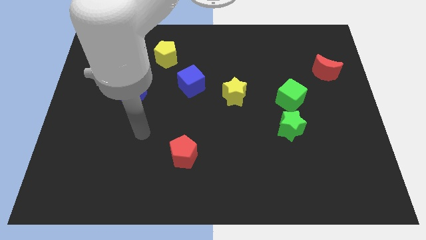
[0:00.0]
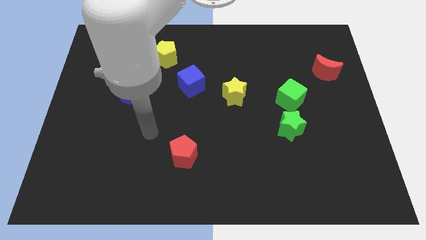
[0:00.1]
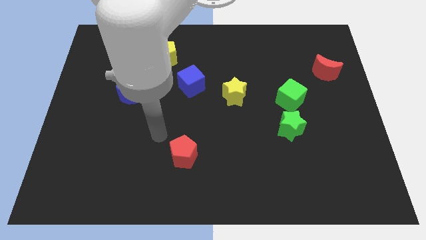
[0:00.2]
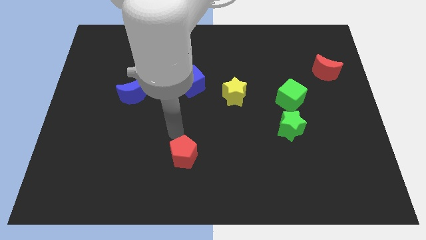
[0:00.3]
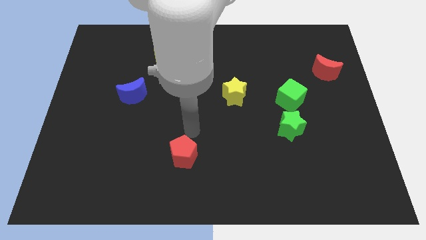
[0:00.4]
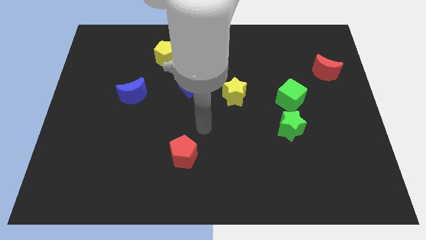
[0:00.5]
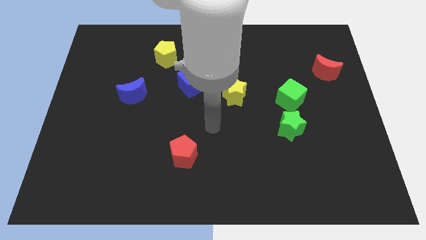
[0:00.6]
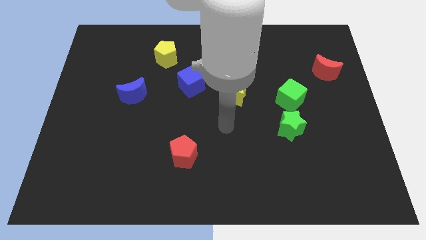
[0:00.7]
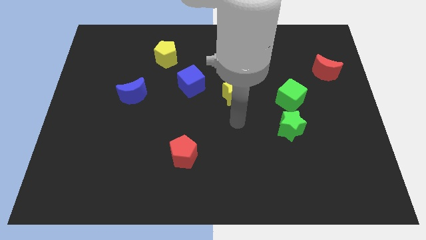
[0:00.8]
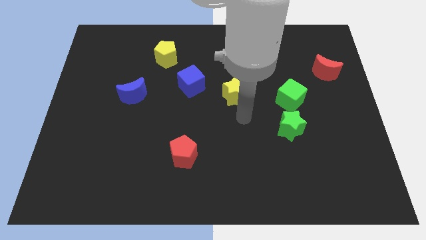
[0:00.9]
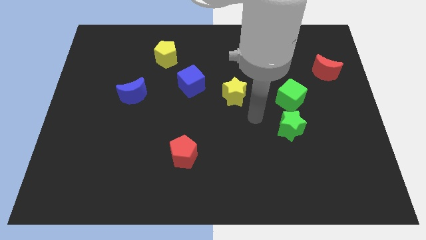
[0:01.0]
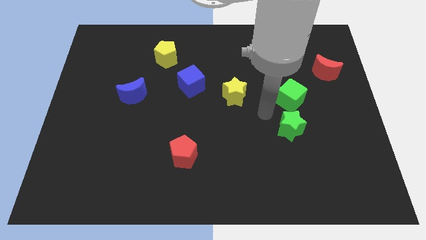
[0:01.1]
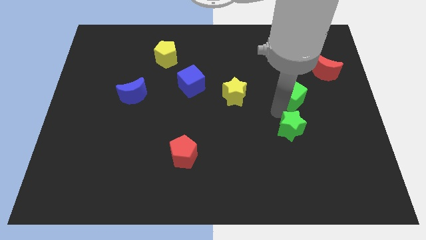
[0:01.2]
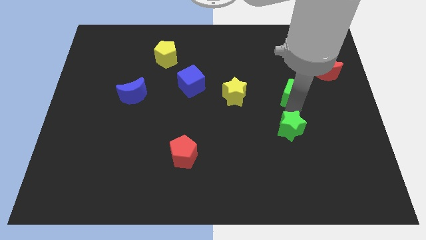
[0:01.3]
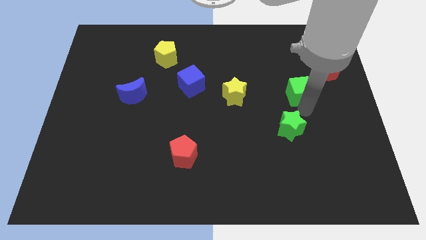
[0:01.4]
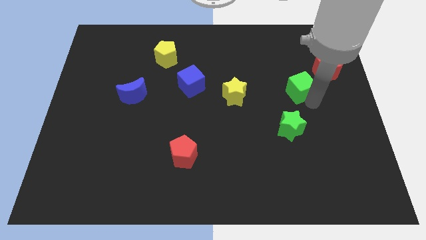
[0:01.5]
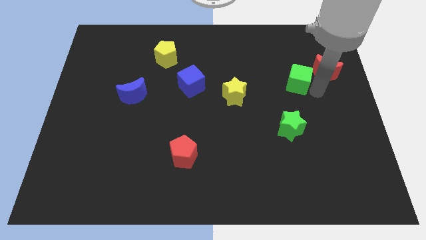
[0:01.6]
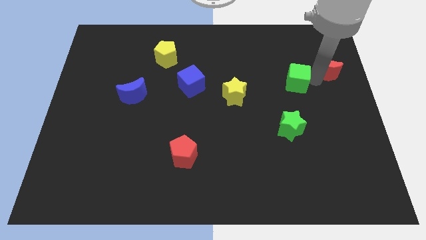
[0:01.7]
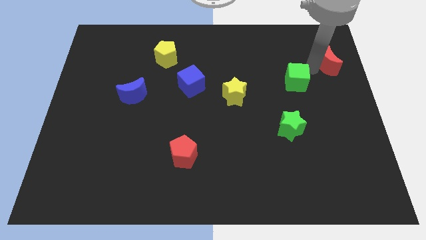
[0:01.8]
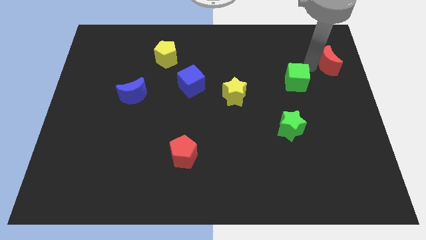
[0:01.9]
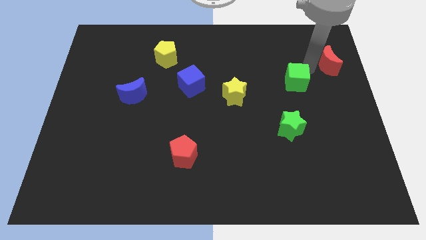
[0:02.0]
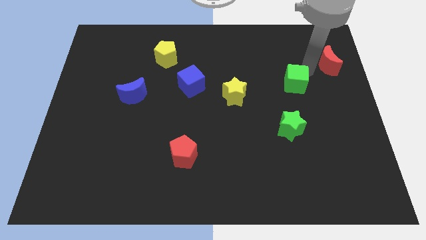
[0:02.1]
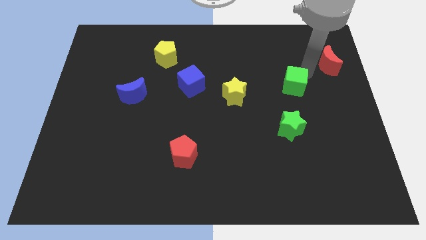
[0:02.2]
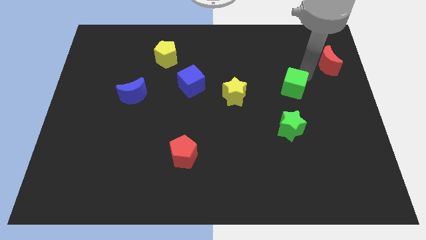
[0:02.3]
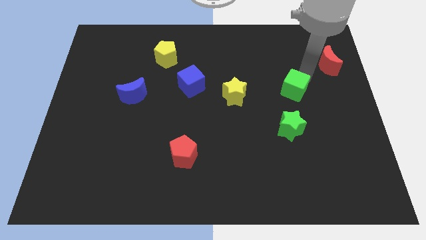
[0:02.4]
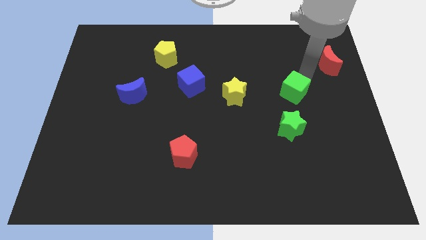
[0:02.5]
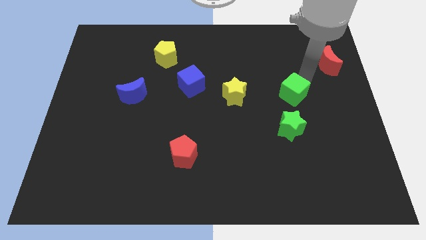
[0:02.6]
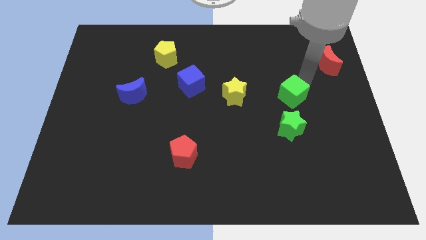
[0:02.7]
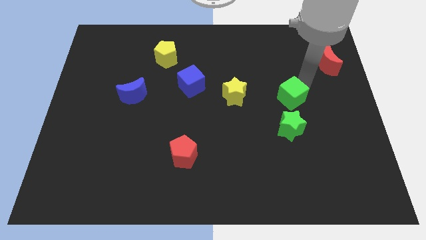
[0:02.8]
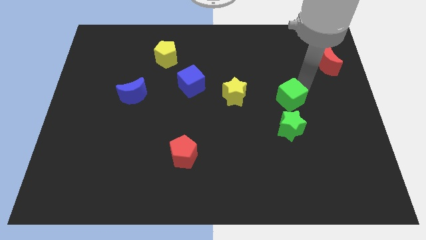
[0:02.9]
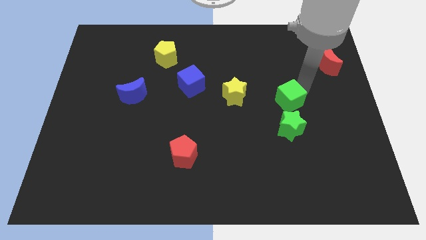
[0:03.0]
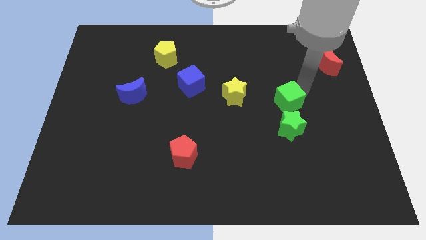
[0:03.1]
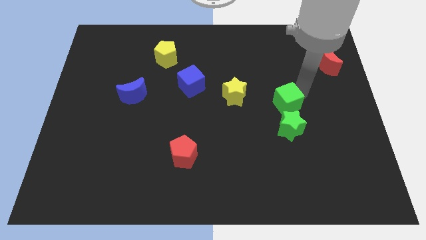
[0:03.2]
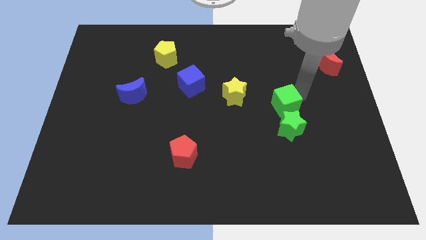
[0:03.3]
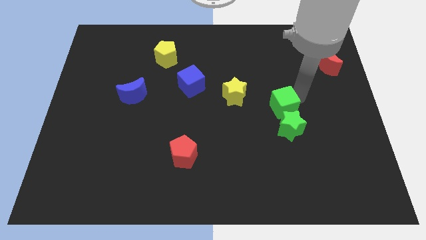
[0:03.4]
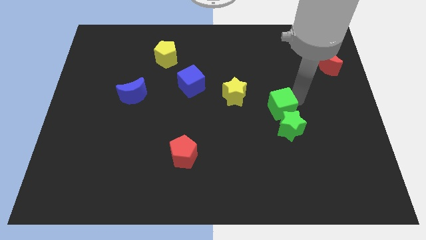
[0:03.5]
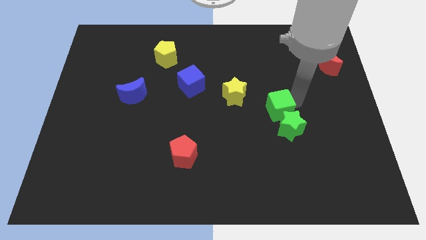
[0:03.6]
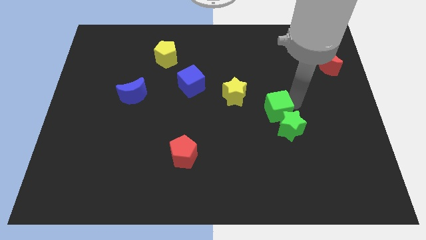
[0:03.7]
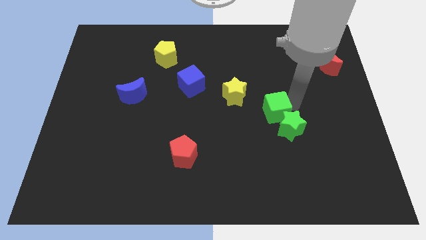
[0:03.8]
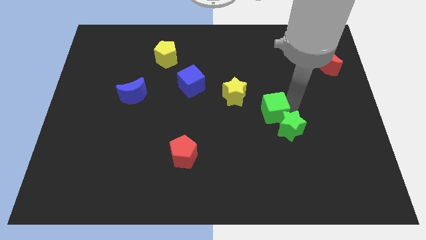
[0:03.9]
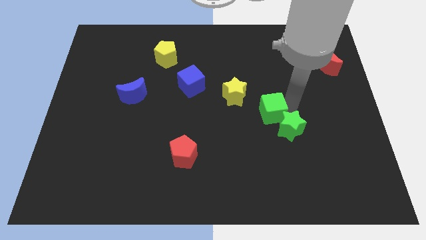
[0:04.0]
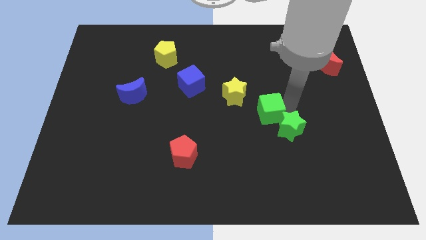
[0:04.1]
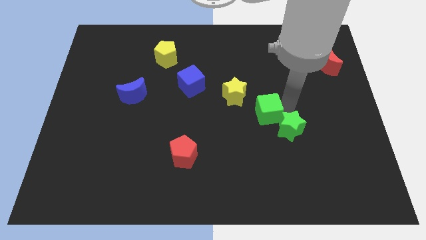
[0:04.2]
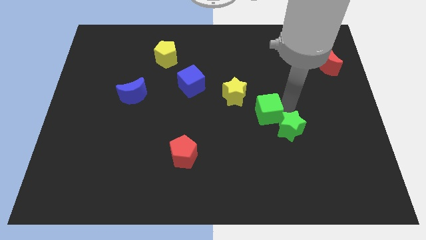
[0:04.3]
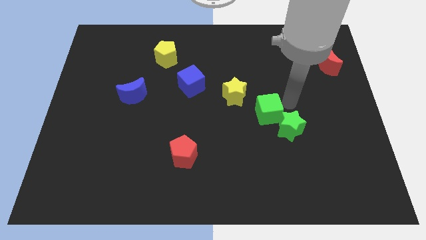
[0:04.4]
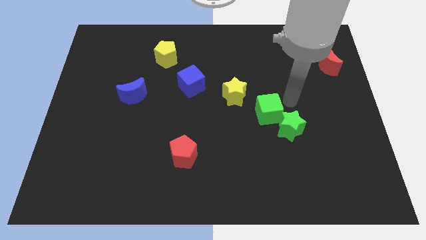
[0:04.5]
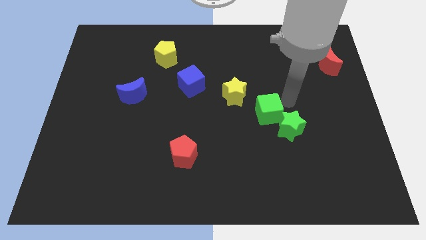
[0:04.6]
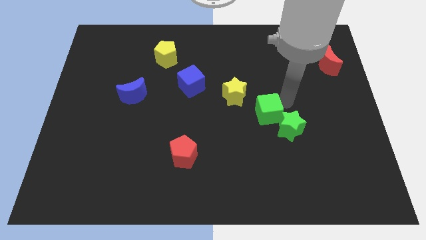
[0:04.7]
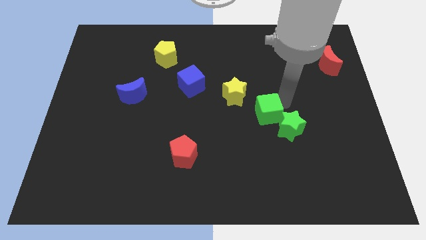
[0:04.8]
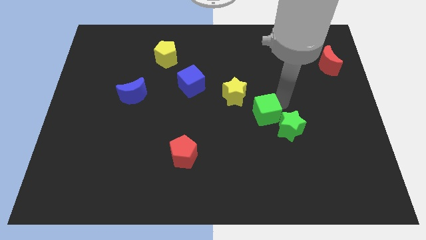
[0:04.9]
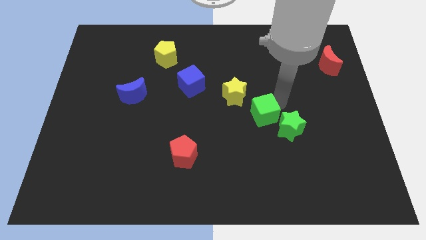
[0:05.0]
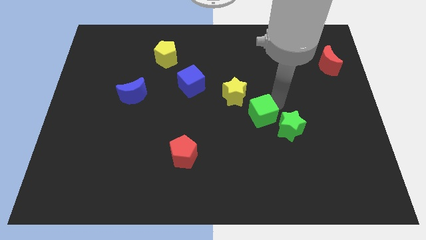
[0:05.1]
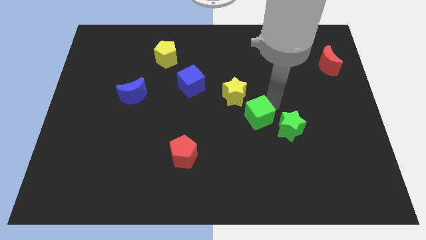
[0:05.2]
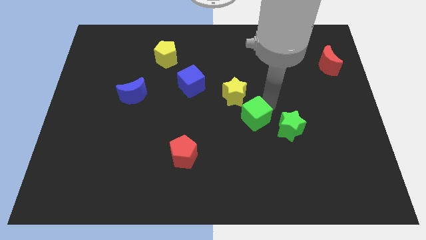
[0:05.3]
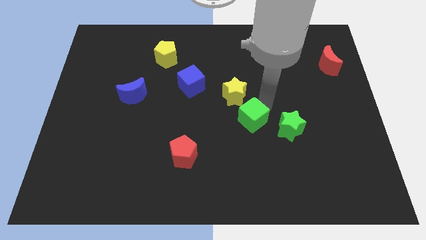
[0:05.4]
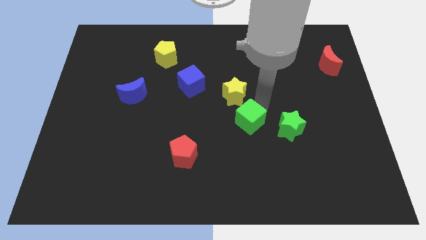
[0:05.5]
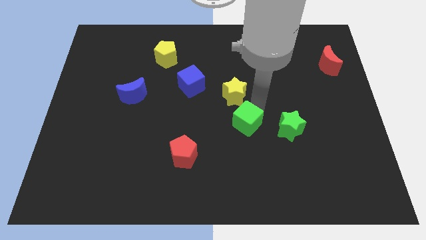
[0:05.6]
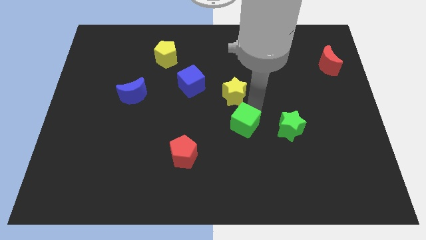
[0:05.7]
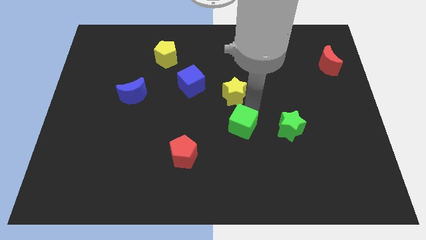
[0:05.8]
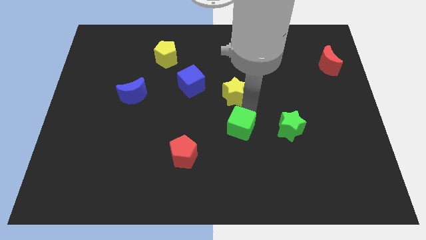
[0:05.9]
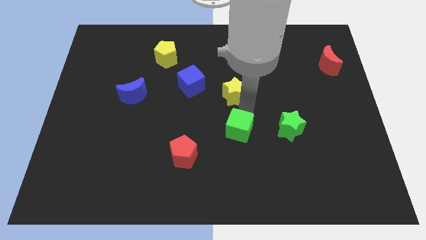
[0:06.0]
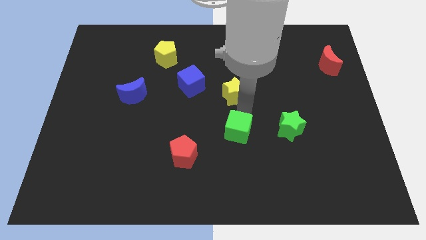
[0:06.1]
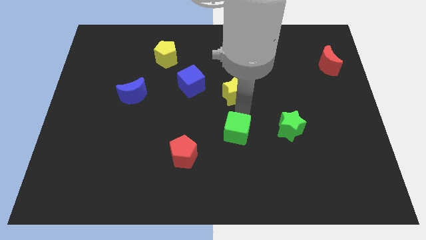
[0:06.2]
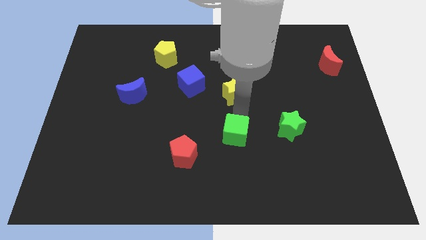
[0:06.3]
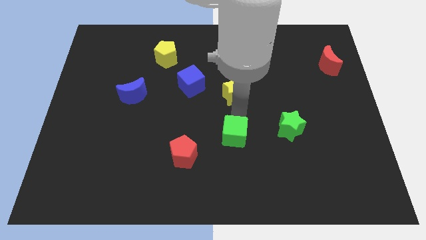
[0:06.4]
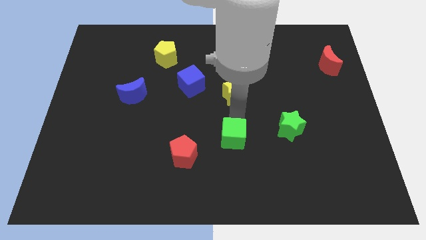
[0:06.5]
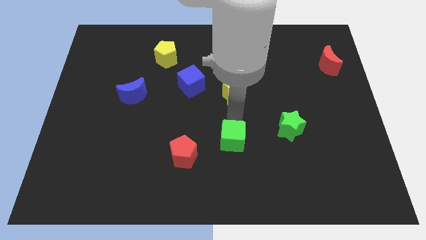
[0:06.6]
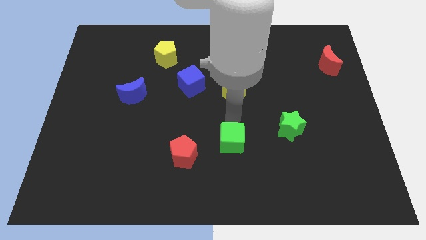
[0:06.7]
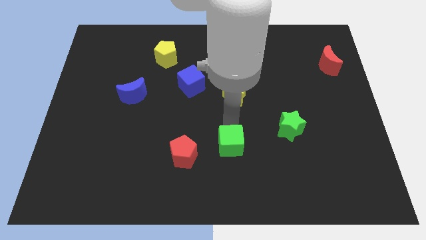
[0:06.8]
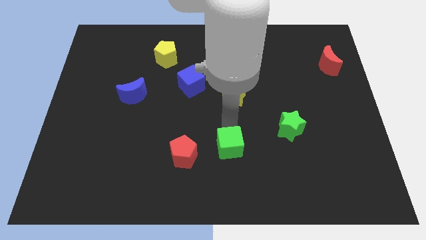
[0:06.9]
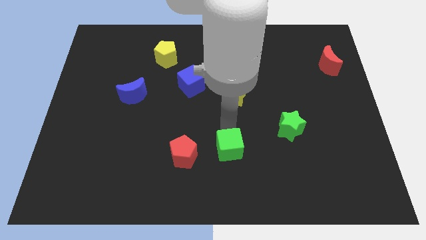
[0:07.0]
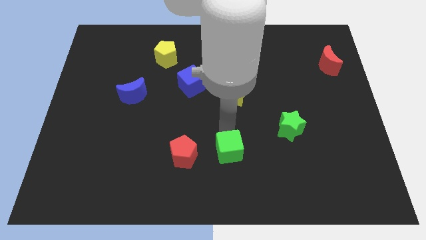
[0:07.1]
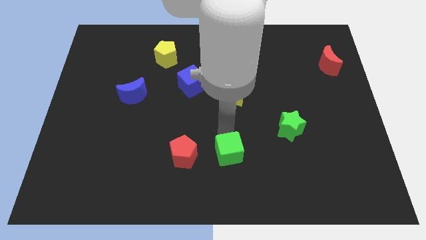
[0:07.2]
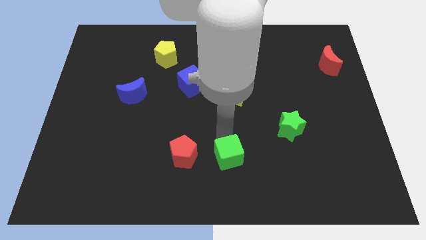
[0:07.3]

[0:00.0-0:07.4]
put the green cube to the bottom side
